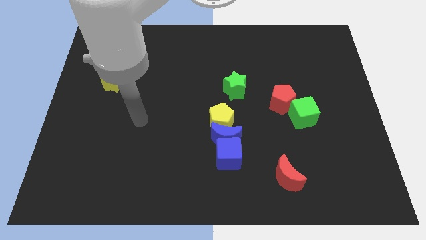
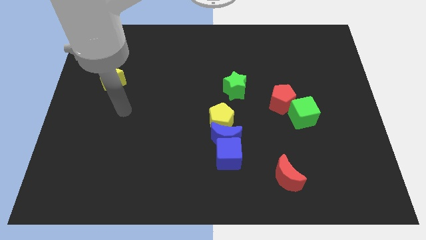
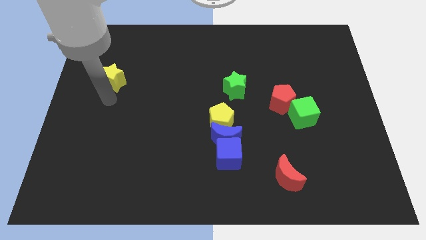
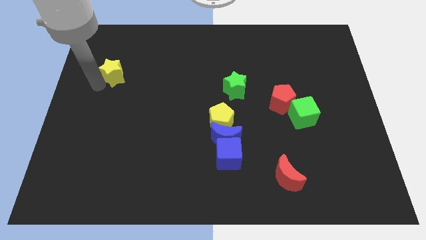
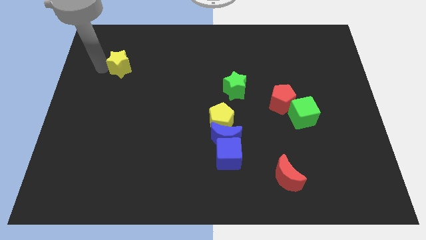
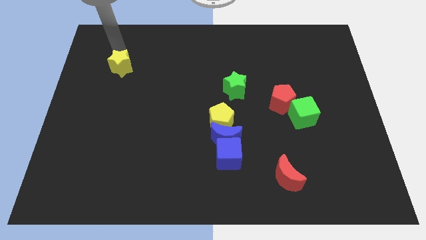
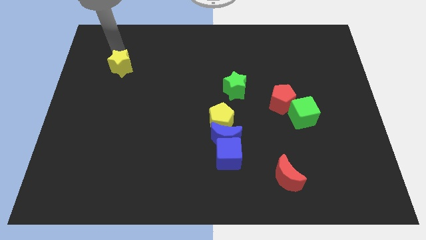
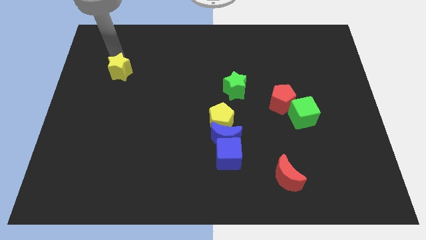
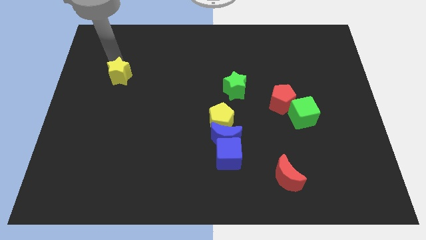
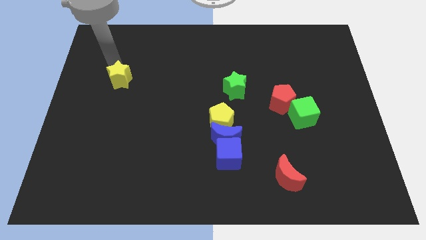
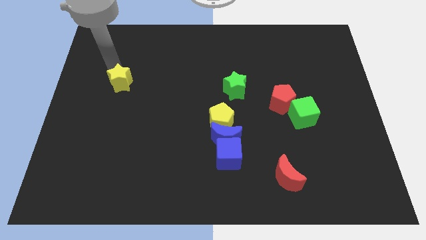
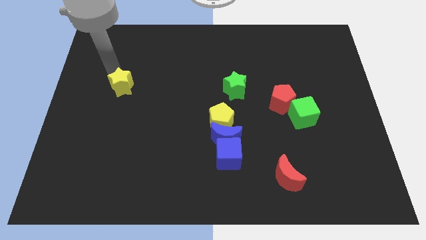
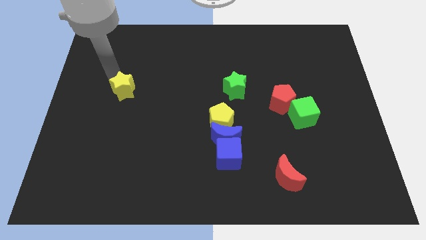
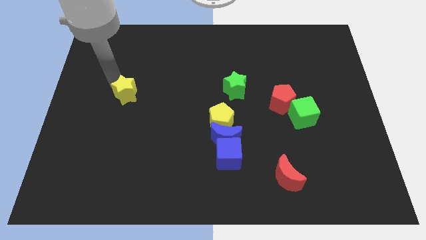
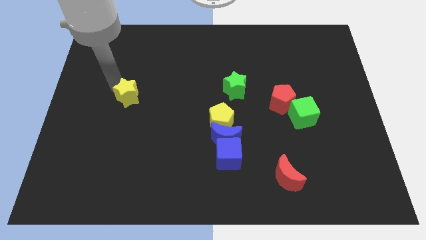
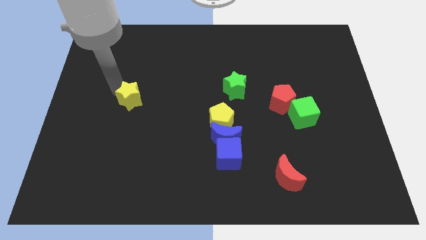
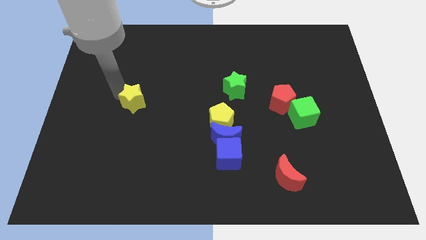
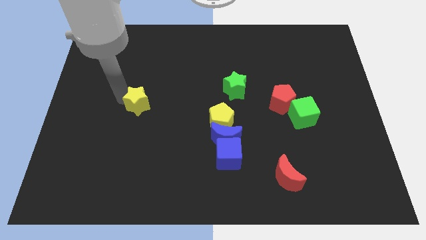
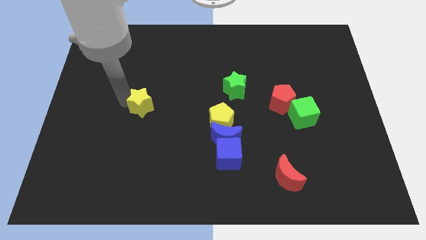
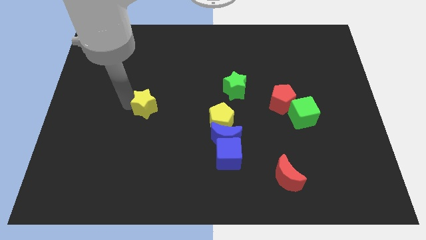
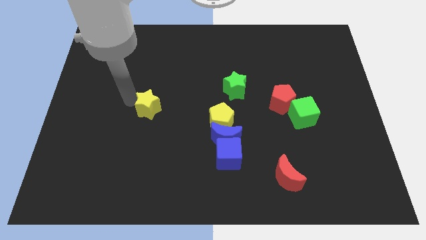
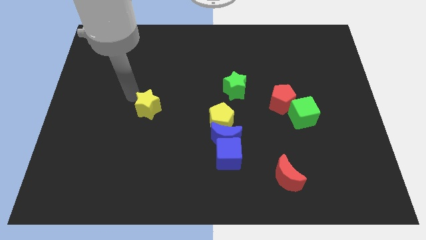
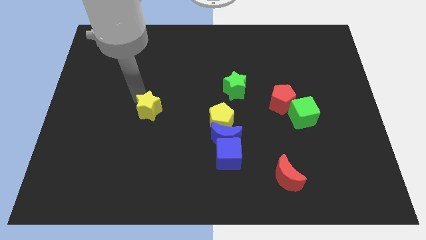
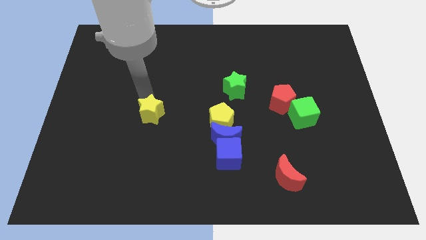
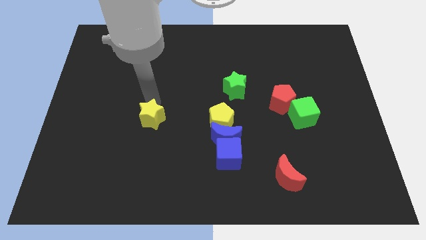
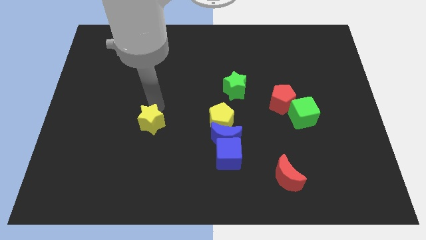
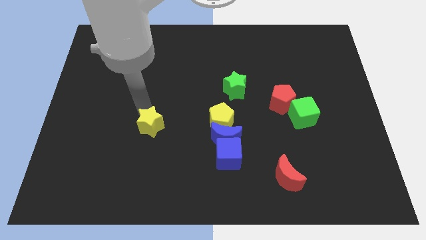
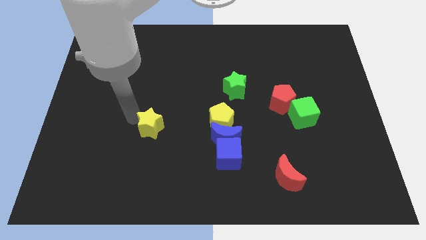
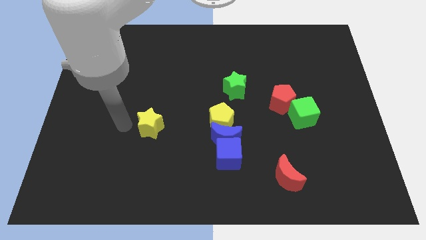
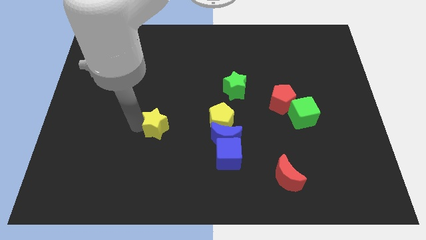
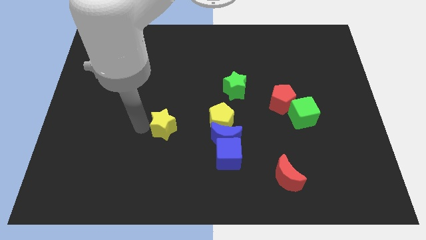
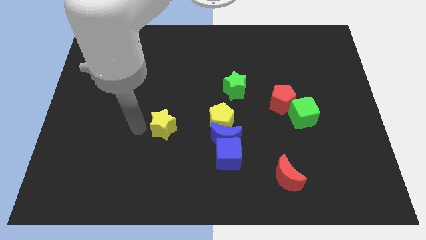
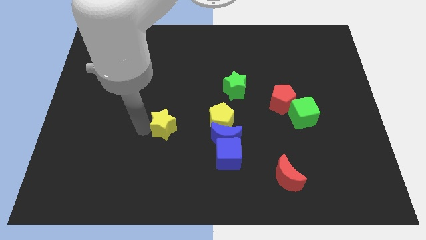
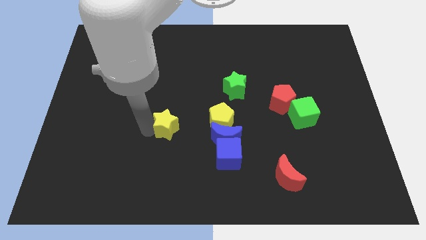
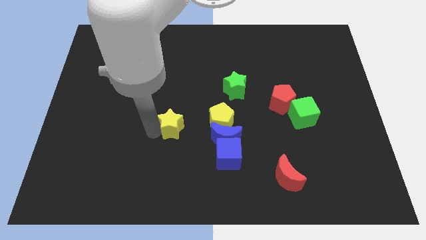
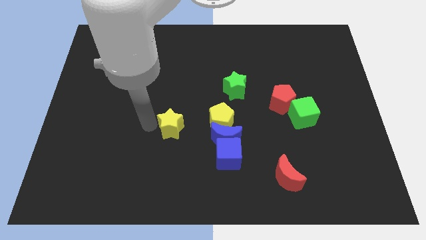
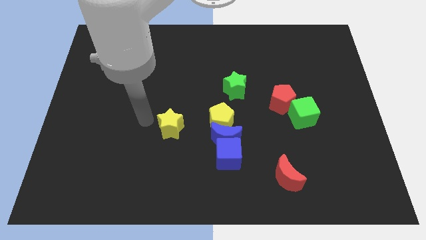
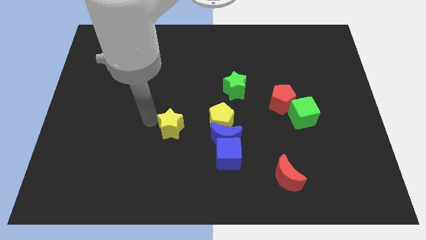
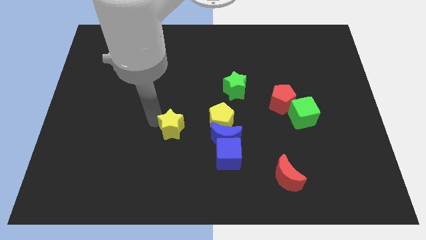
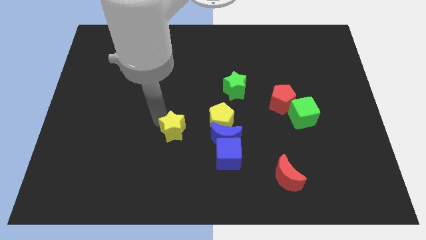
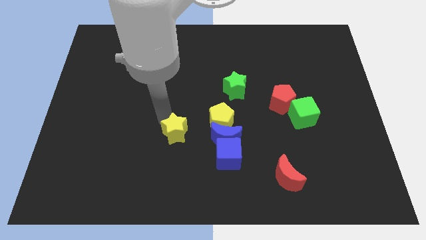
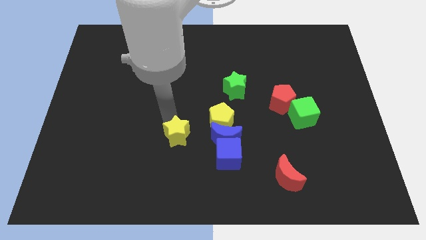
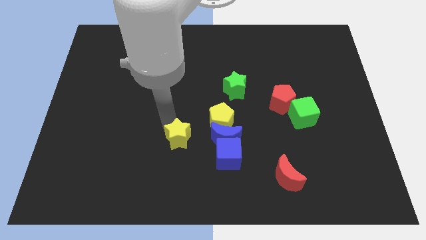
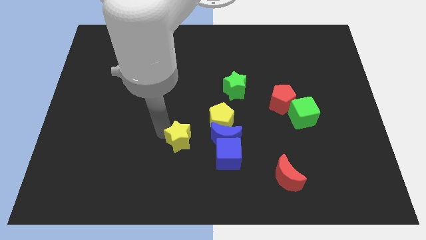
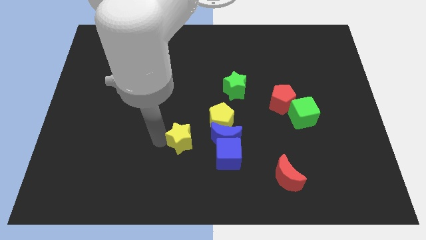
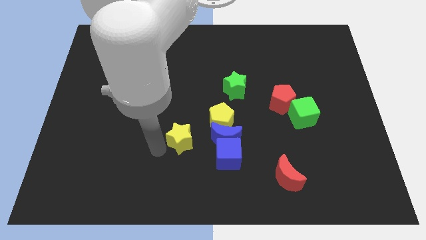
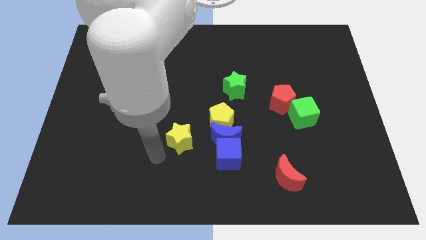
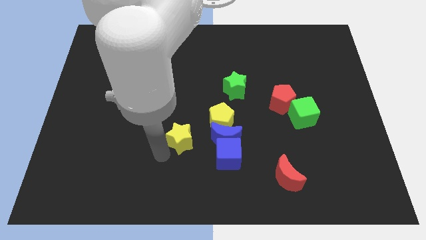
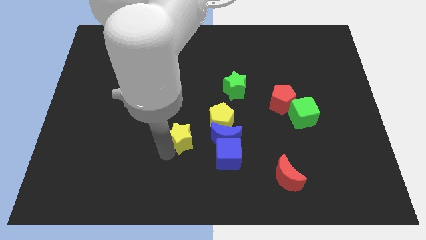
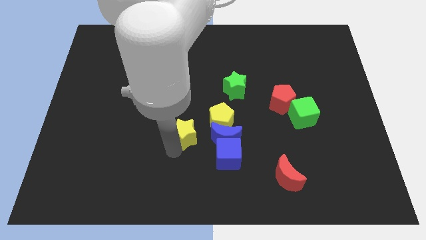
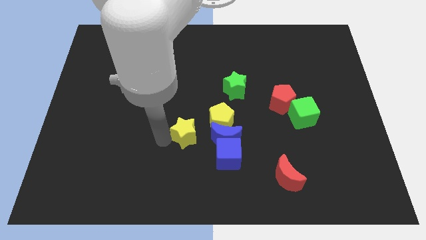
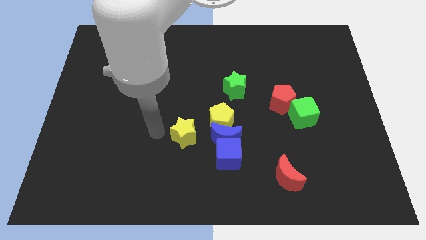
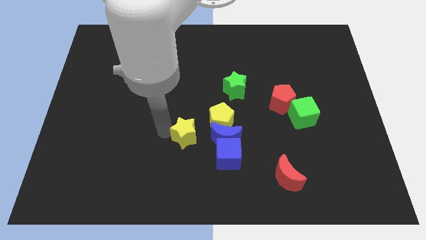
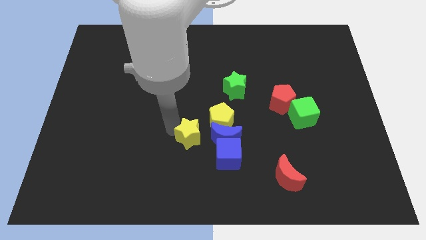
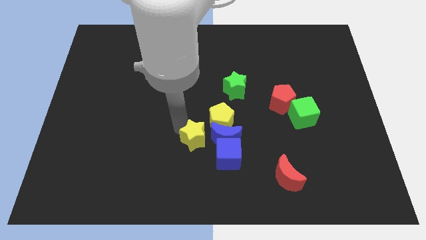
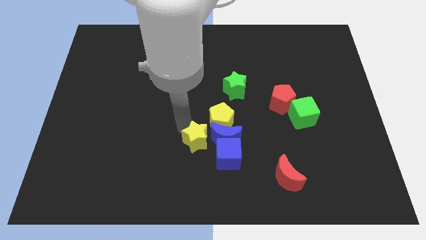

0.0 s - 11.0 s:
put the yellow star next to the blue moon

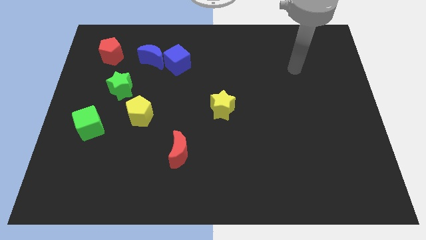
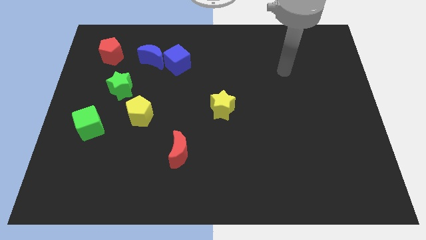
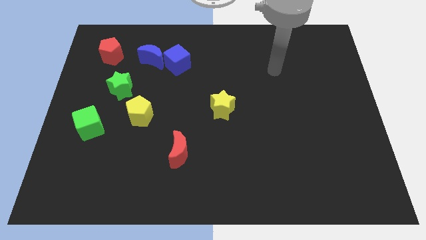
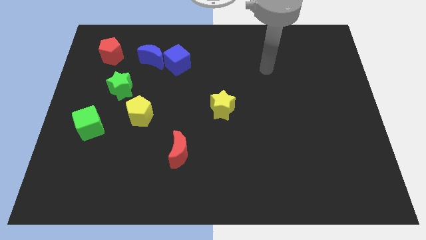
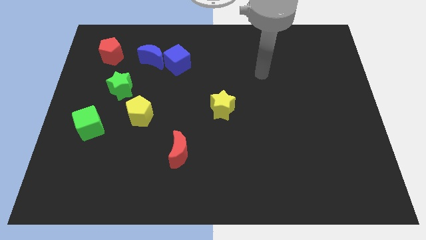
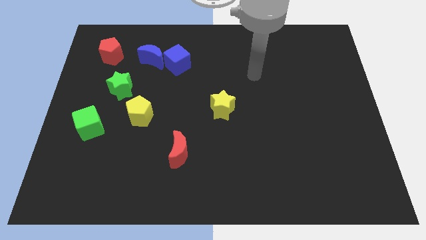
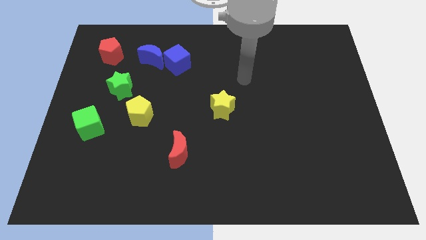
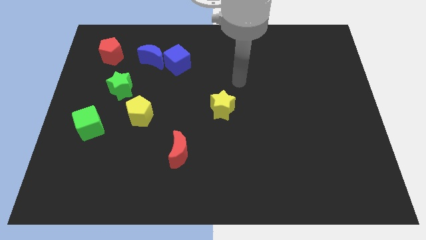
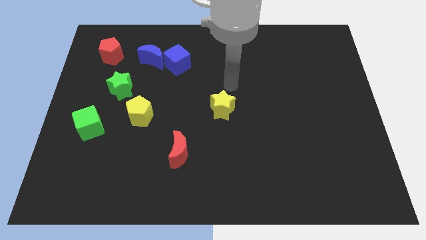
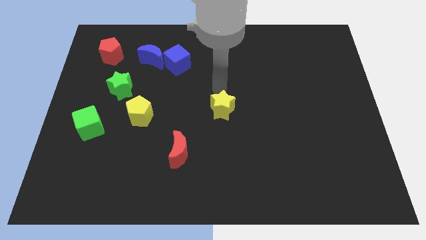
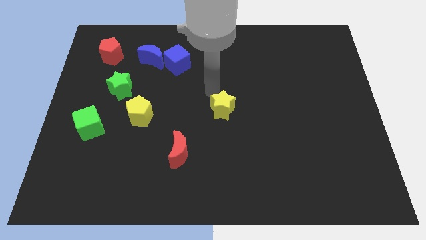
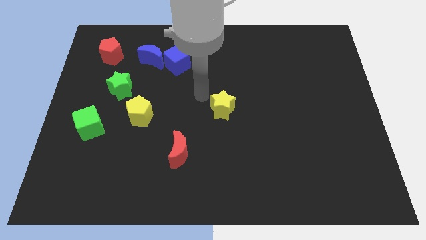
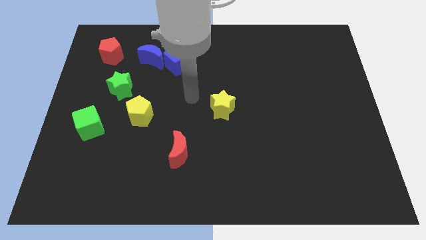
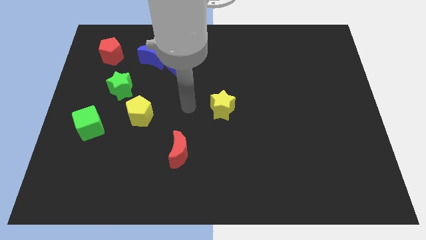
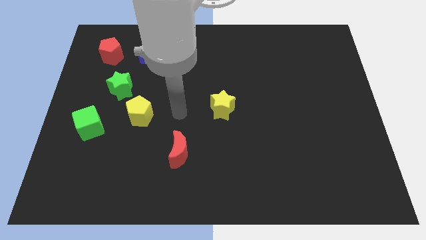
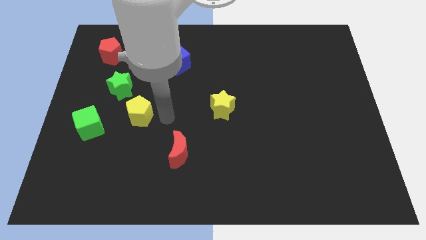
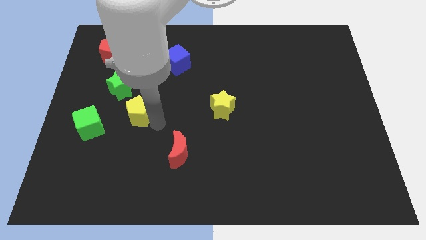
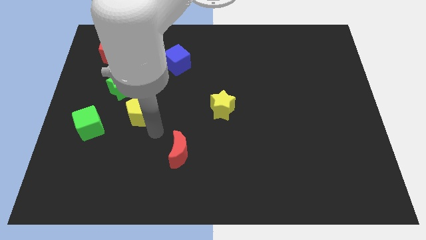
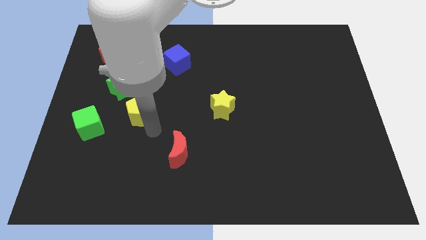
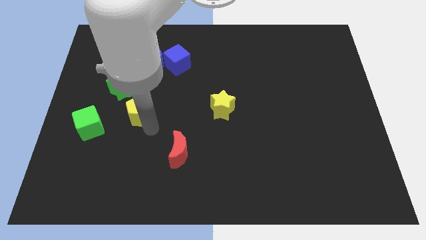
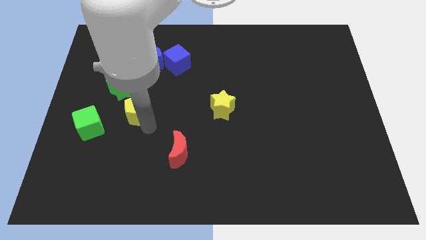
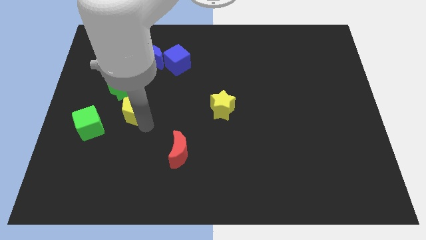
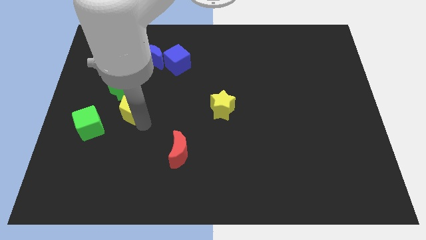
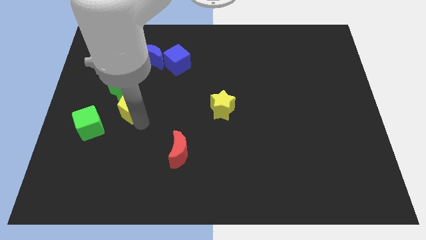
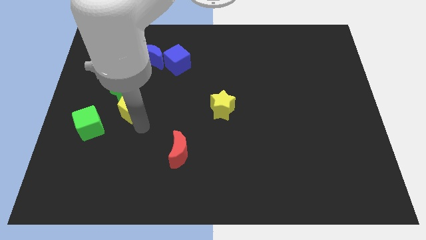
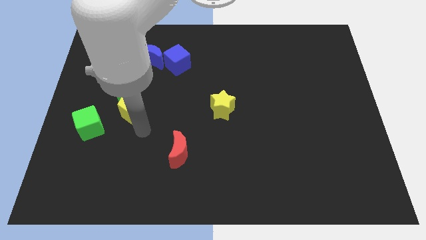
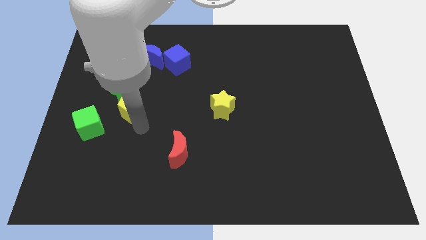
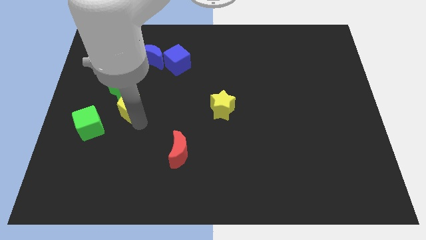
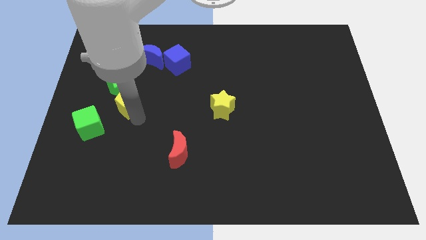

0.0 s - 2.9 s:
put the yellow pentagon to the green star
